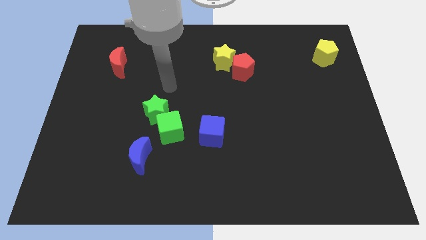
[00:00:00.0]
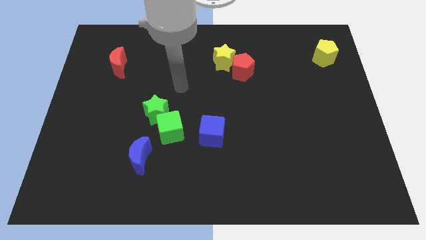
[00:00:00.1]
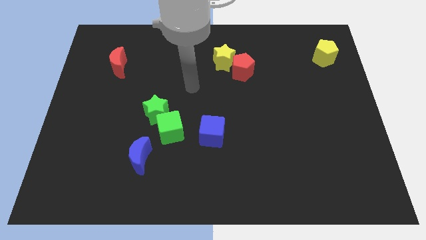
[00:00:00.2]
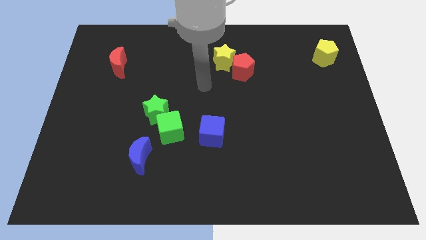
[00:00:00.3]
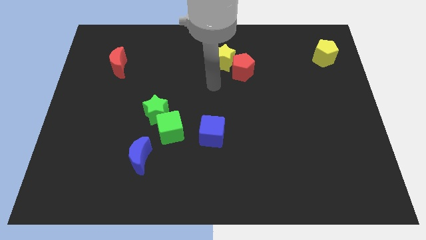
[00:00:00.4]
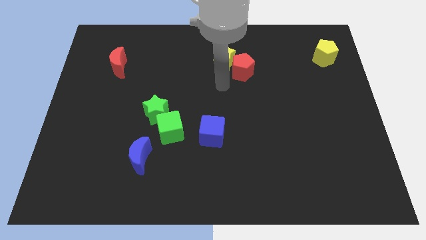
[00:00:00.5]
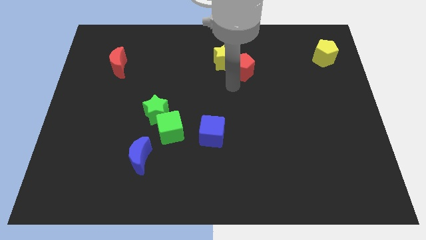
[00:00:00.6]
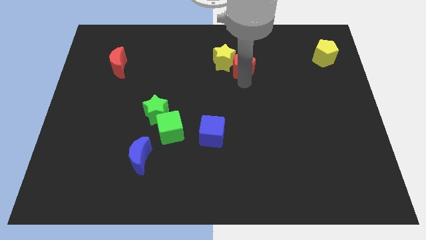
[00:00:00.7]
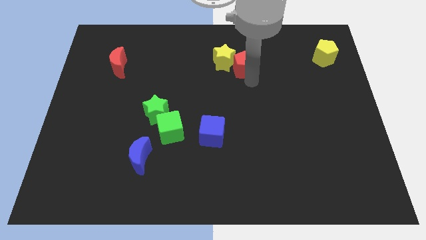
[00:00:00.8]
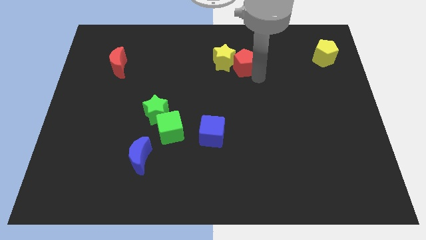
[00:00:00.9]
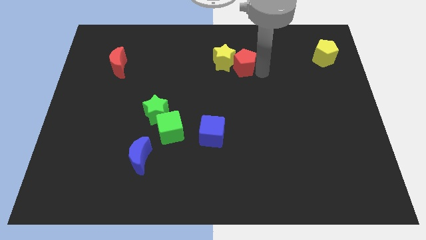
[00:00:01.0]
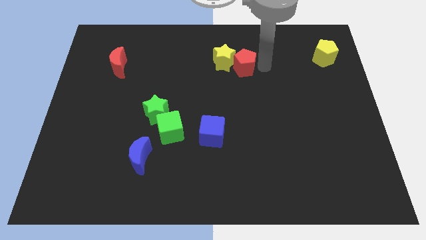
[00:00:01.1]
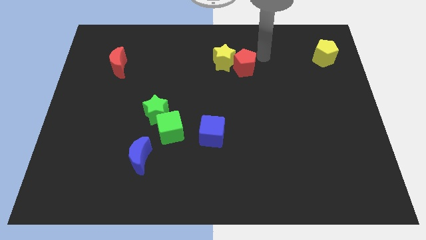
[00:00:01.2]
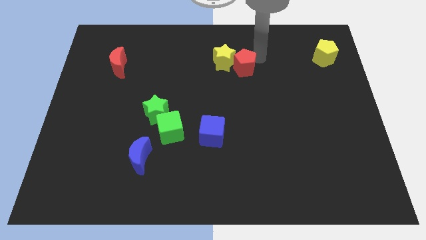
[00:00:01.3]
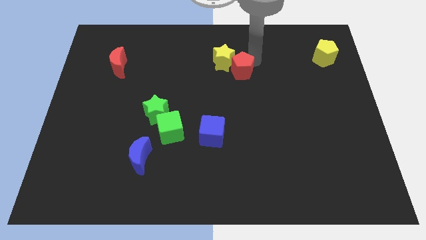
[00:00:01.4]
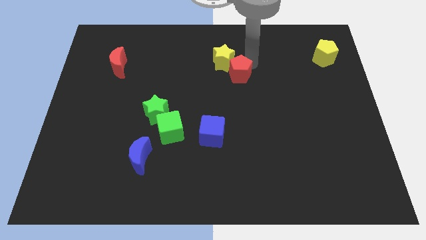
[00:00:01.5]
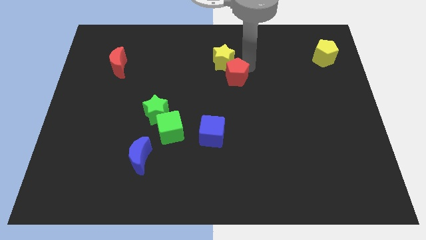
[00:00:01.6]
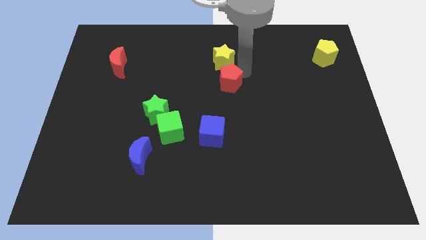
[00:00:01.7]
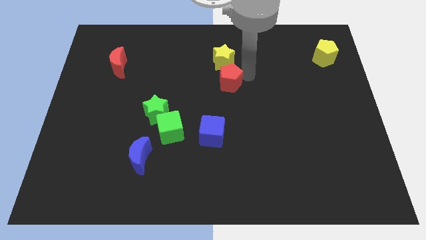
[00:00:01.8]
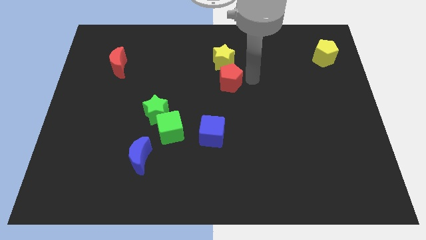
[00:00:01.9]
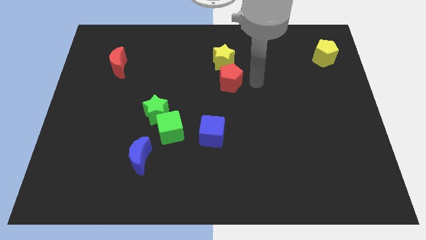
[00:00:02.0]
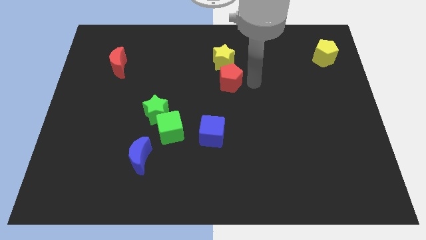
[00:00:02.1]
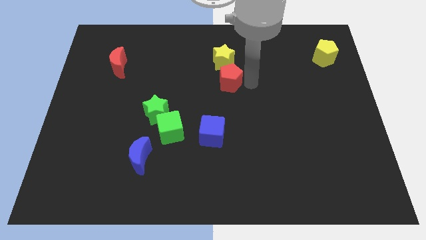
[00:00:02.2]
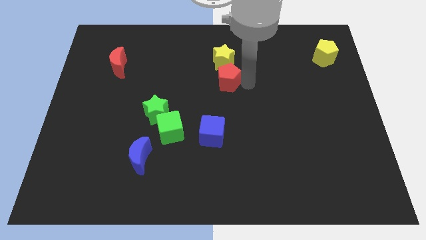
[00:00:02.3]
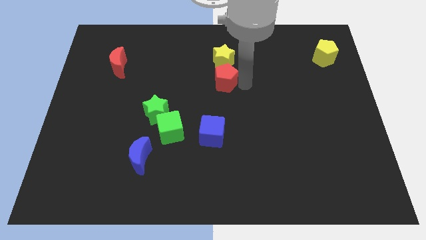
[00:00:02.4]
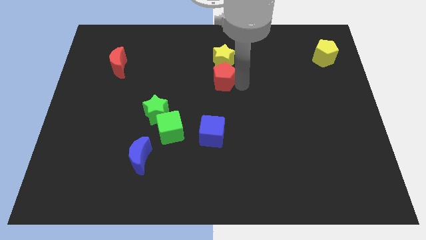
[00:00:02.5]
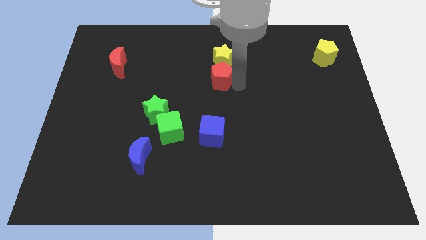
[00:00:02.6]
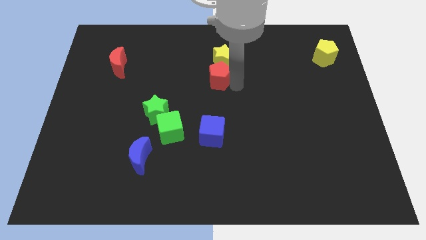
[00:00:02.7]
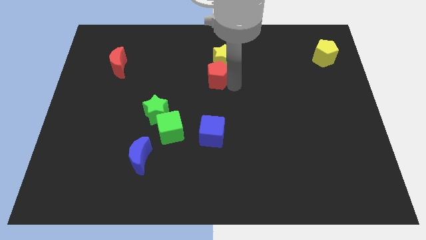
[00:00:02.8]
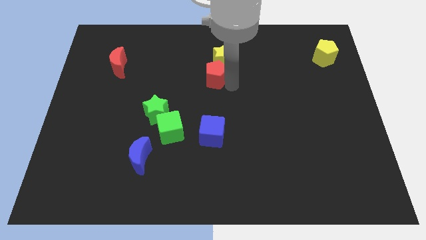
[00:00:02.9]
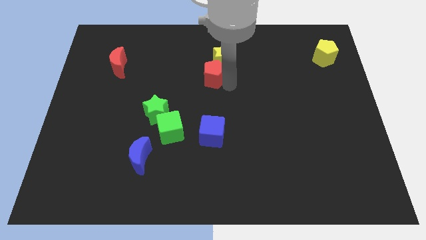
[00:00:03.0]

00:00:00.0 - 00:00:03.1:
move the red pentagon left a little bit

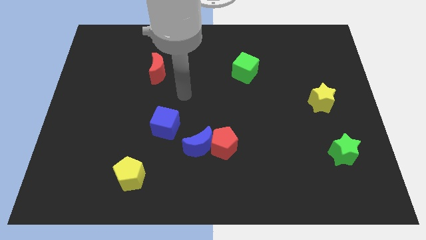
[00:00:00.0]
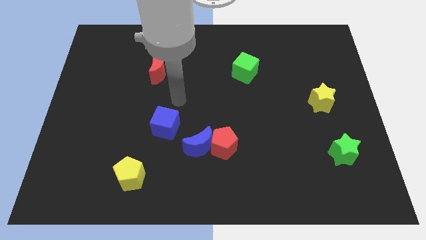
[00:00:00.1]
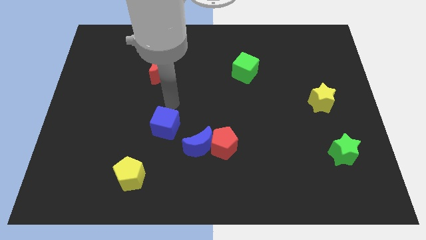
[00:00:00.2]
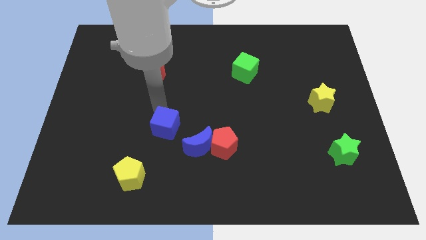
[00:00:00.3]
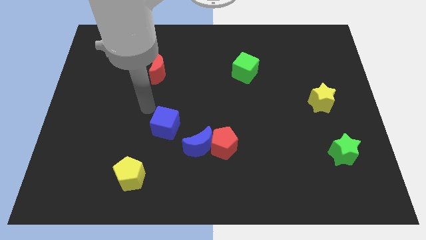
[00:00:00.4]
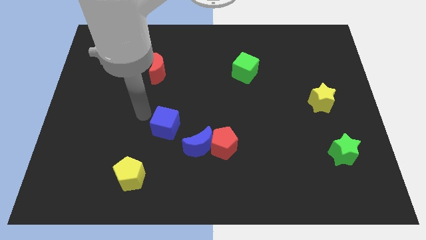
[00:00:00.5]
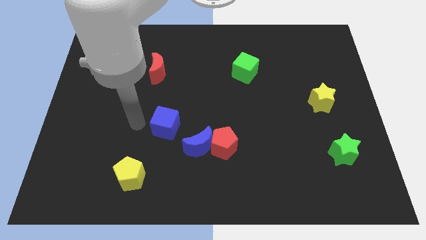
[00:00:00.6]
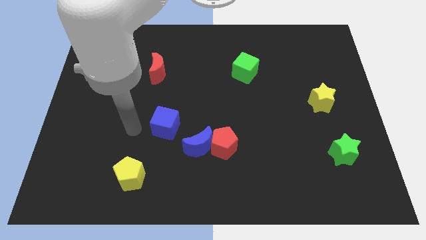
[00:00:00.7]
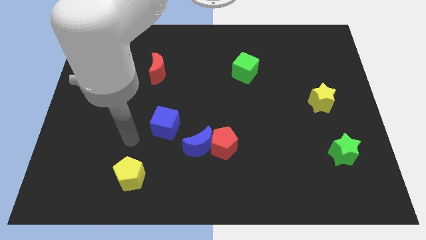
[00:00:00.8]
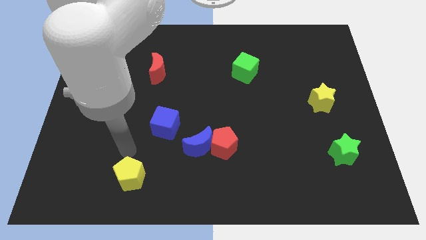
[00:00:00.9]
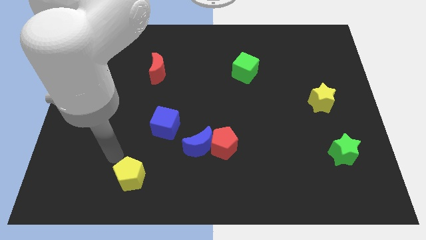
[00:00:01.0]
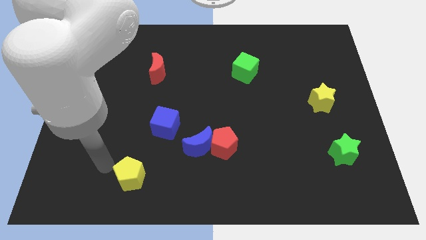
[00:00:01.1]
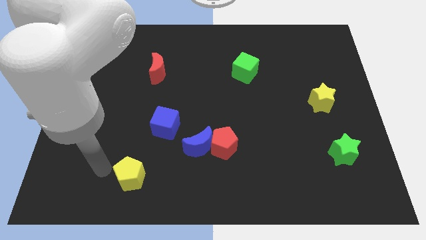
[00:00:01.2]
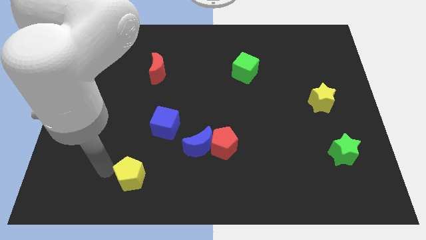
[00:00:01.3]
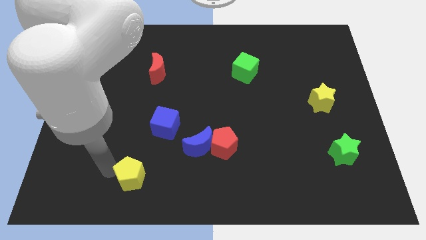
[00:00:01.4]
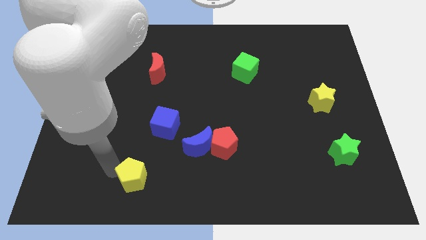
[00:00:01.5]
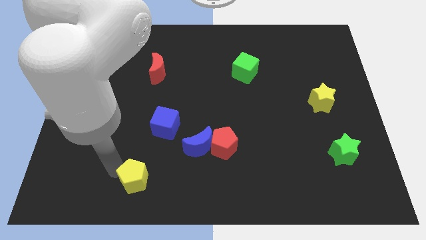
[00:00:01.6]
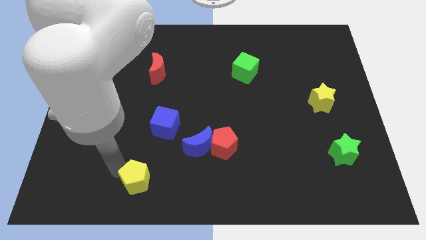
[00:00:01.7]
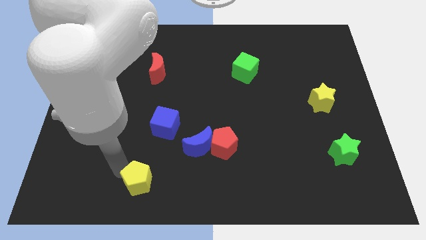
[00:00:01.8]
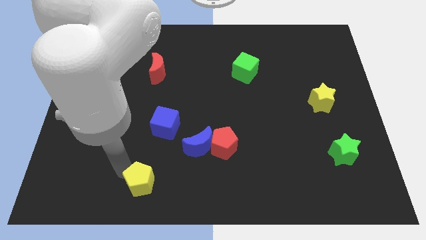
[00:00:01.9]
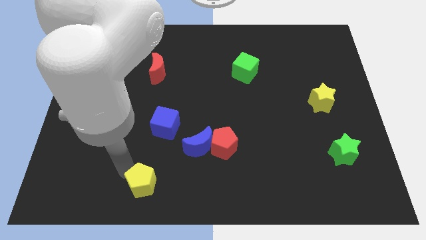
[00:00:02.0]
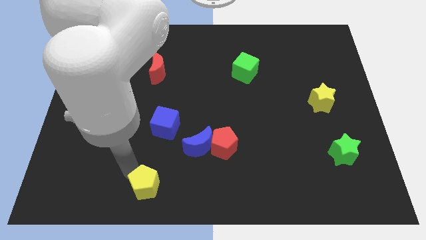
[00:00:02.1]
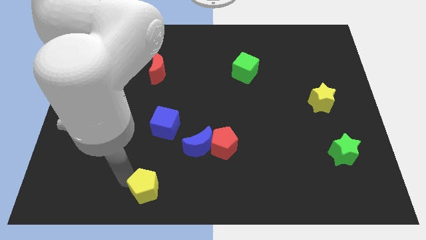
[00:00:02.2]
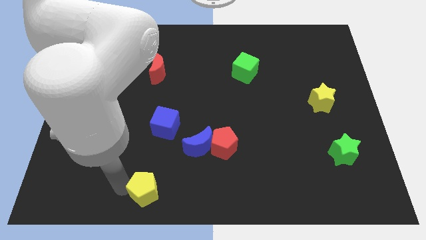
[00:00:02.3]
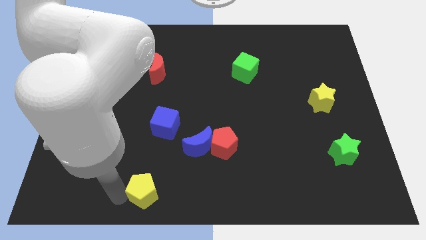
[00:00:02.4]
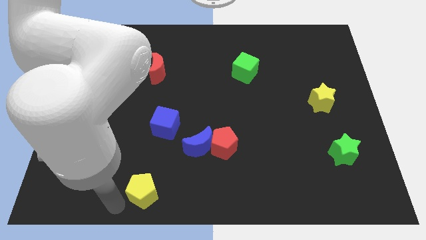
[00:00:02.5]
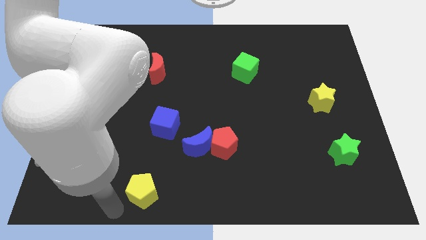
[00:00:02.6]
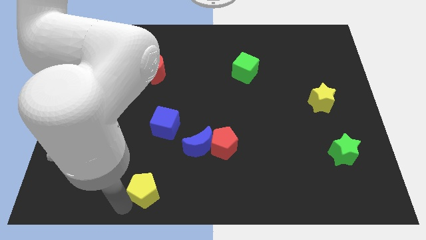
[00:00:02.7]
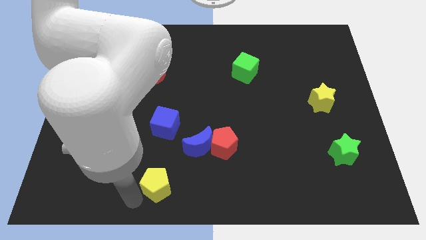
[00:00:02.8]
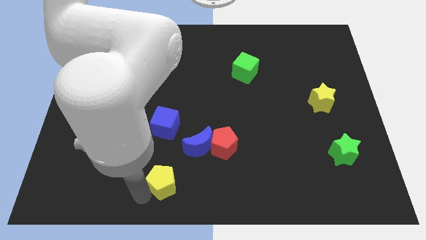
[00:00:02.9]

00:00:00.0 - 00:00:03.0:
move the yellow pentagon to the right a little bit

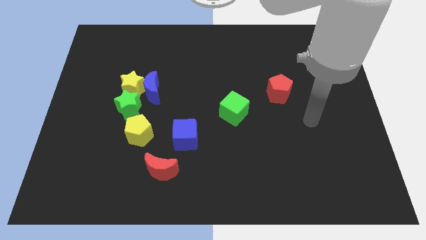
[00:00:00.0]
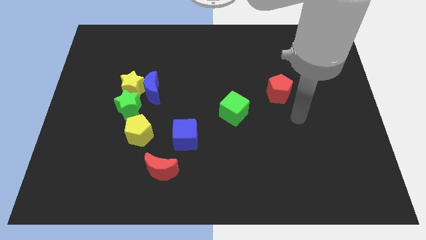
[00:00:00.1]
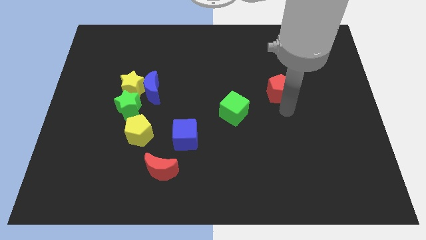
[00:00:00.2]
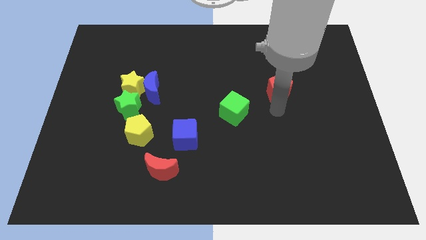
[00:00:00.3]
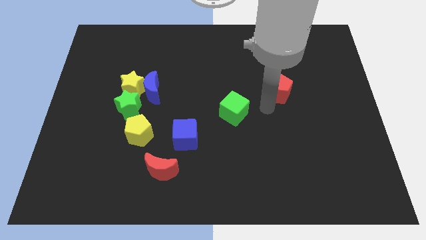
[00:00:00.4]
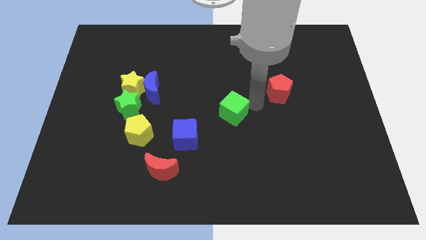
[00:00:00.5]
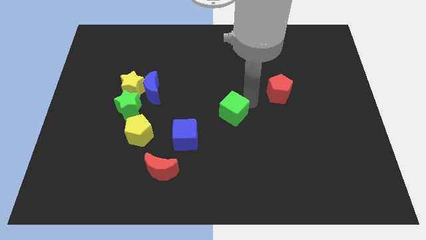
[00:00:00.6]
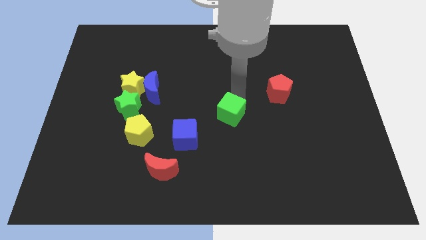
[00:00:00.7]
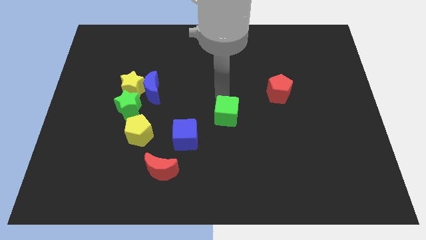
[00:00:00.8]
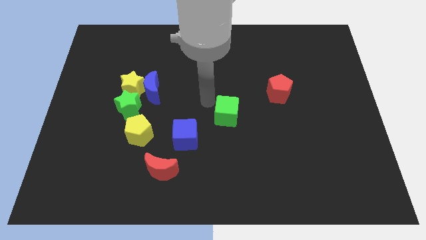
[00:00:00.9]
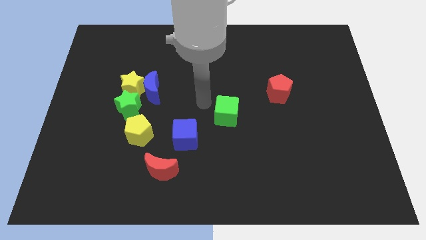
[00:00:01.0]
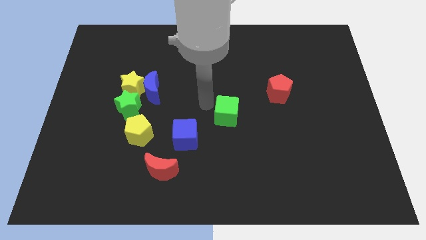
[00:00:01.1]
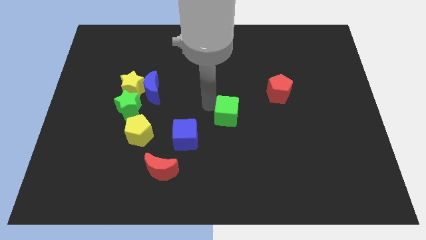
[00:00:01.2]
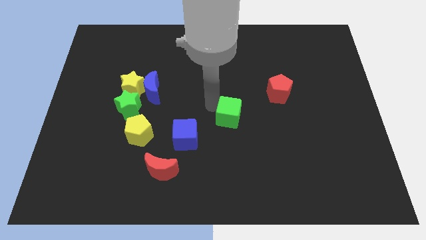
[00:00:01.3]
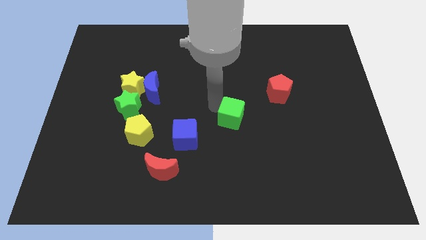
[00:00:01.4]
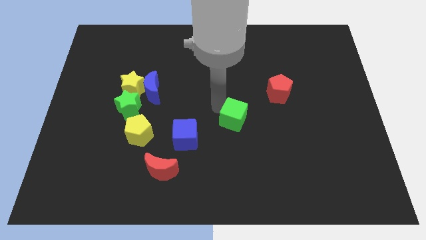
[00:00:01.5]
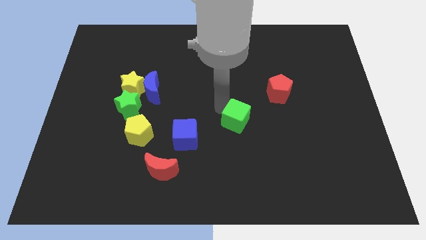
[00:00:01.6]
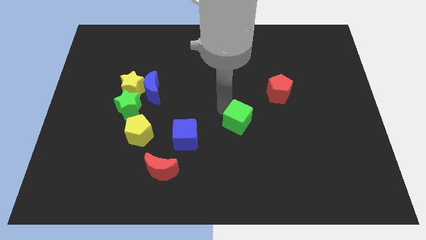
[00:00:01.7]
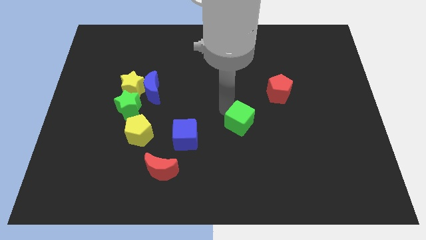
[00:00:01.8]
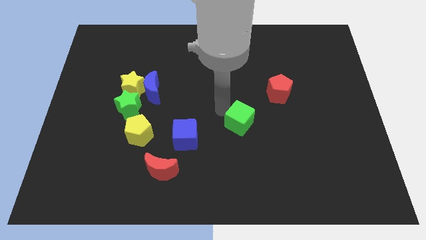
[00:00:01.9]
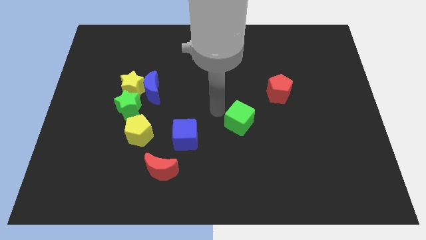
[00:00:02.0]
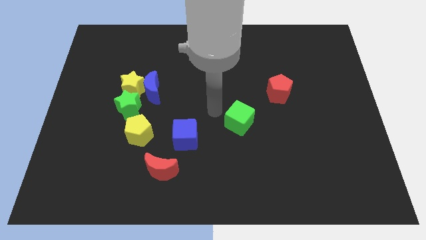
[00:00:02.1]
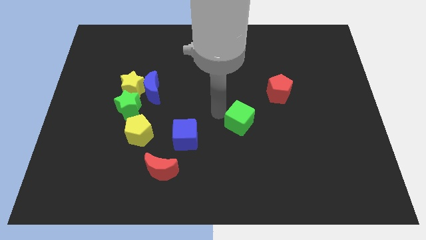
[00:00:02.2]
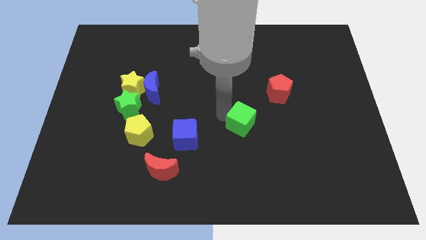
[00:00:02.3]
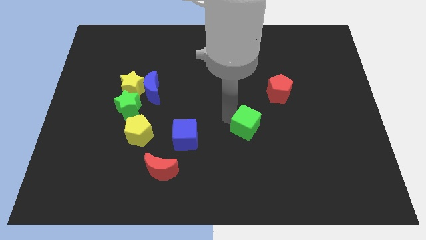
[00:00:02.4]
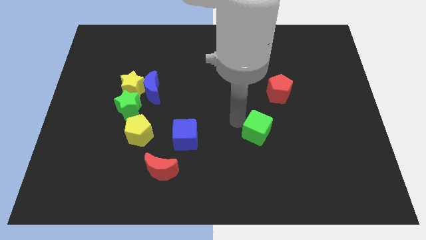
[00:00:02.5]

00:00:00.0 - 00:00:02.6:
slightly slide the green cube downwards and then to the right
